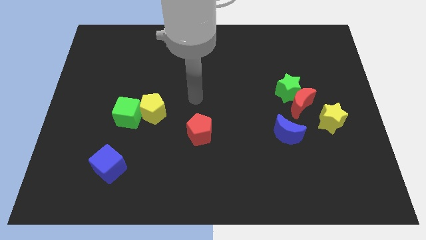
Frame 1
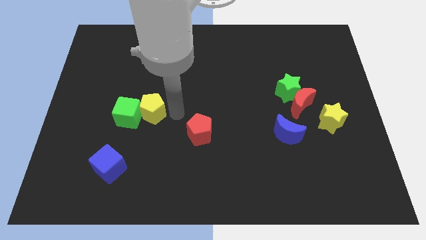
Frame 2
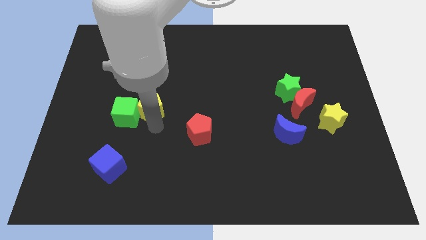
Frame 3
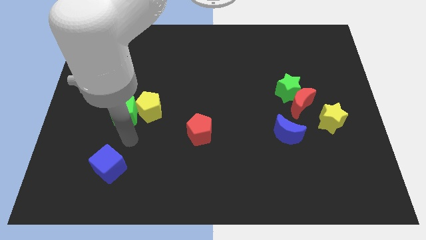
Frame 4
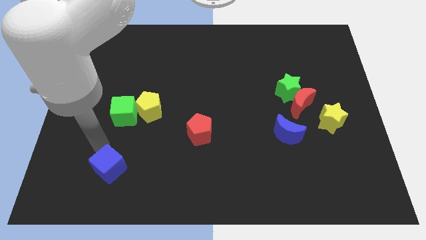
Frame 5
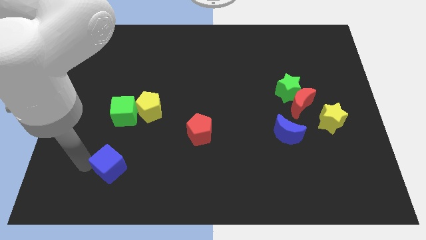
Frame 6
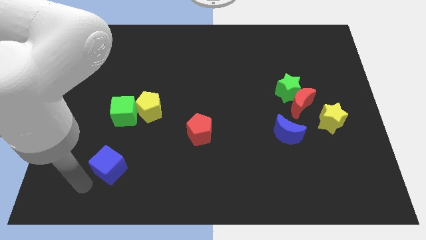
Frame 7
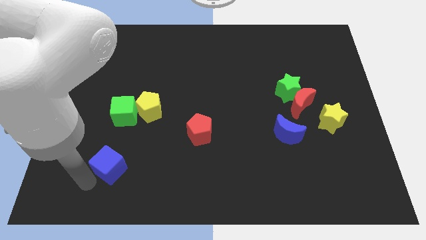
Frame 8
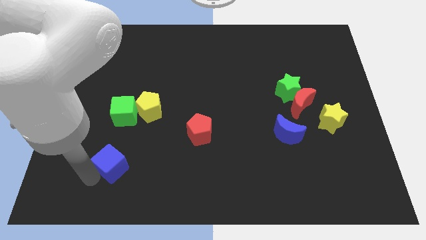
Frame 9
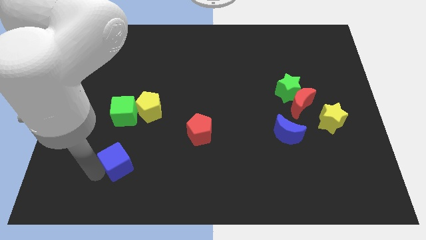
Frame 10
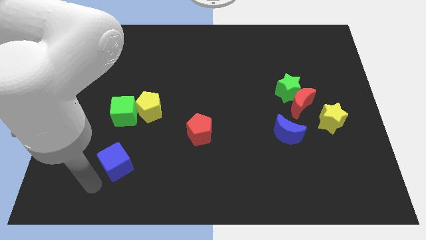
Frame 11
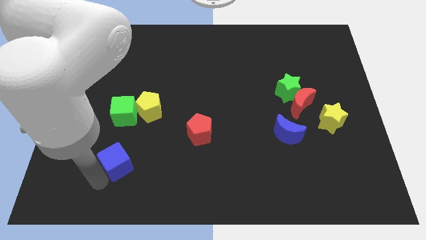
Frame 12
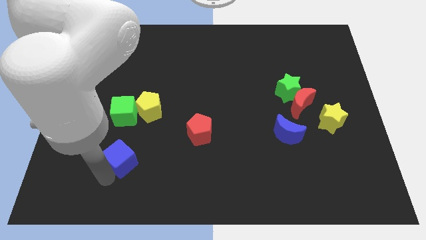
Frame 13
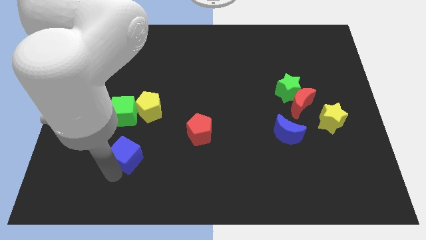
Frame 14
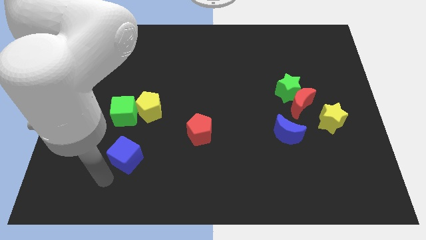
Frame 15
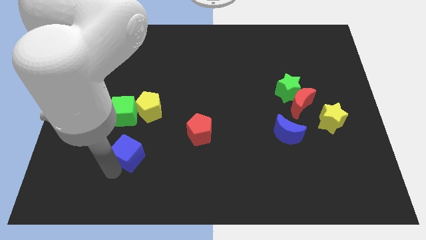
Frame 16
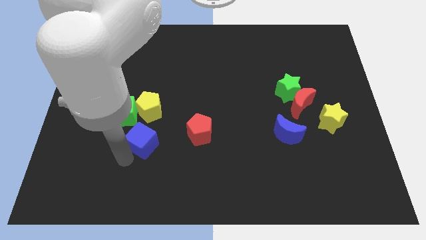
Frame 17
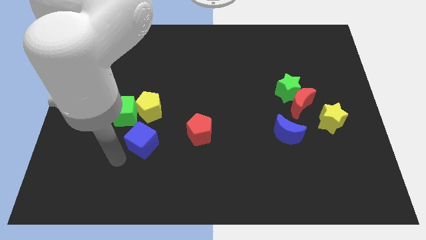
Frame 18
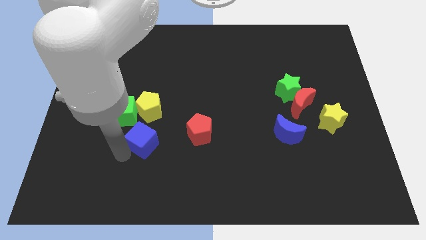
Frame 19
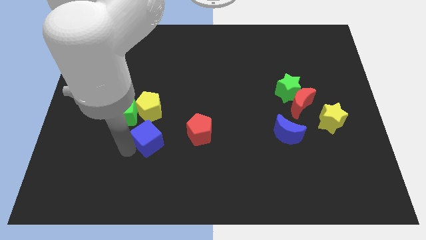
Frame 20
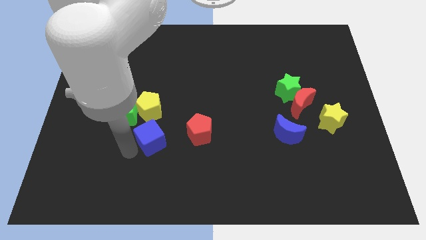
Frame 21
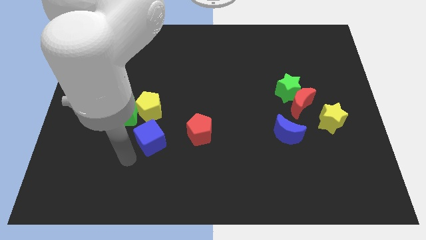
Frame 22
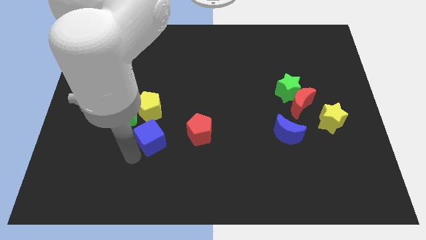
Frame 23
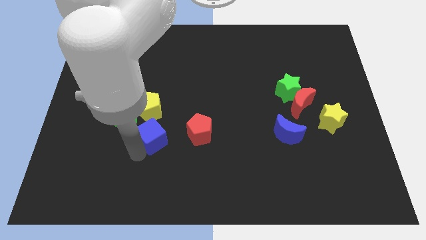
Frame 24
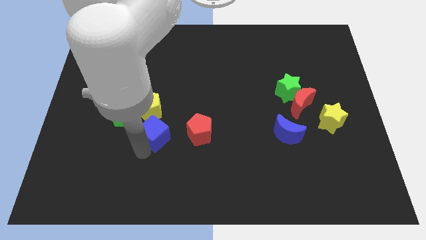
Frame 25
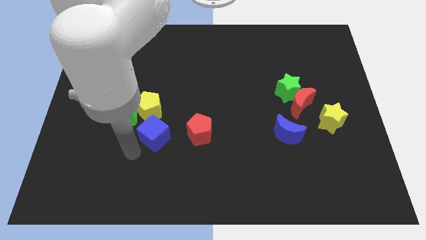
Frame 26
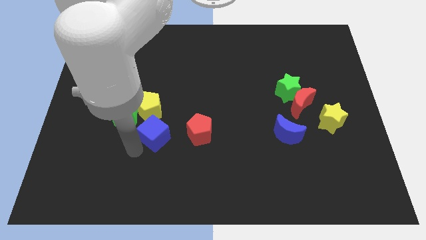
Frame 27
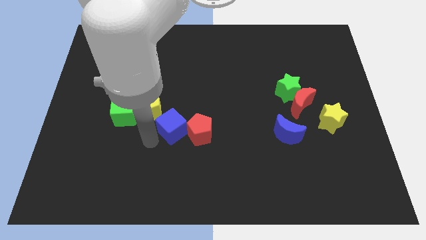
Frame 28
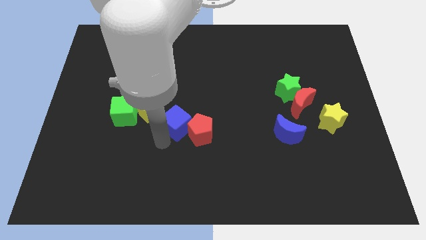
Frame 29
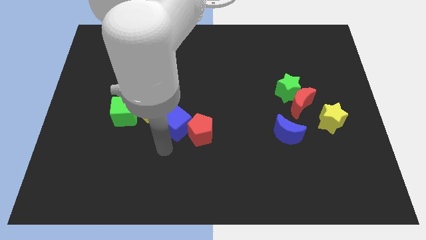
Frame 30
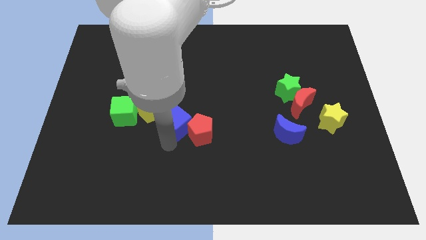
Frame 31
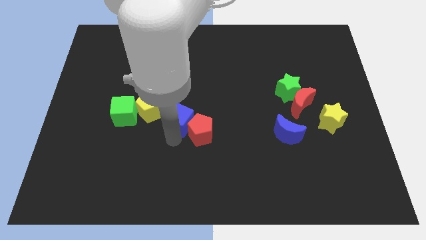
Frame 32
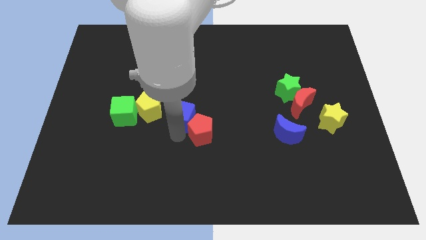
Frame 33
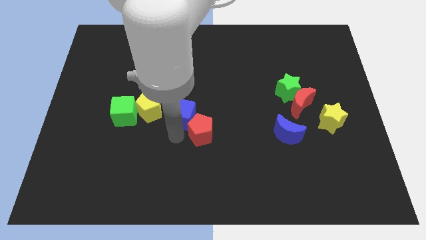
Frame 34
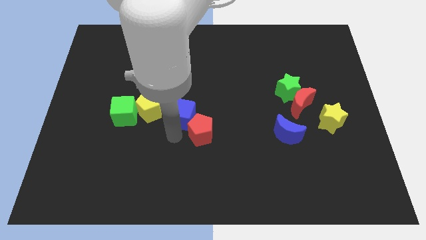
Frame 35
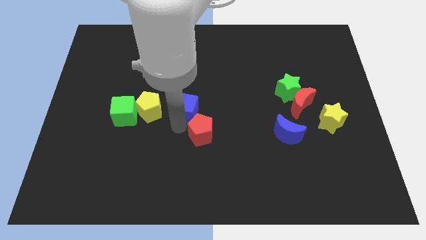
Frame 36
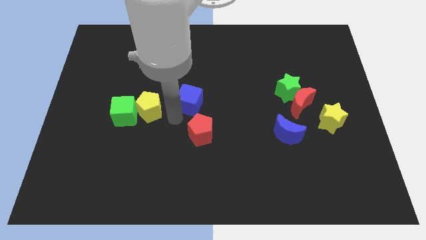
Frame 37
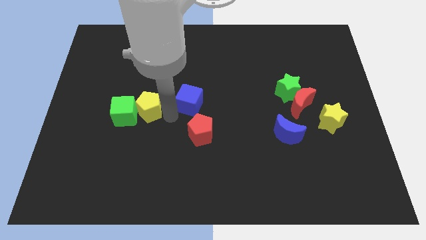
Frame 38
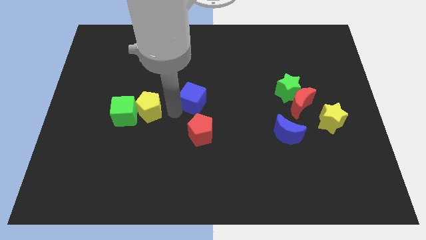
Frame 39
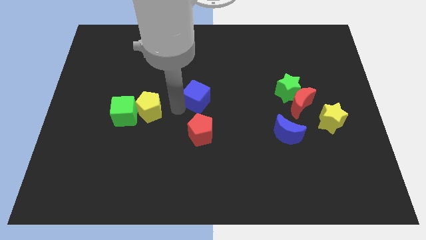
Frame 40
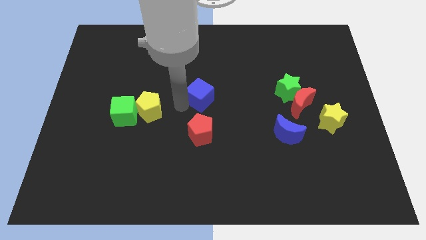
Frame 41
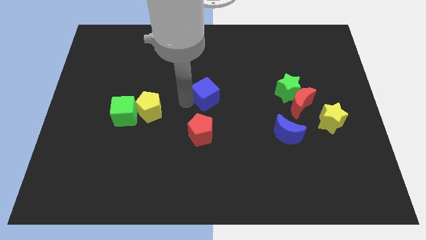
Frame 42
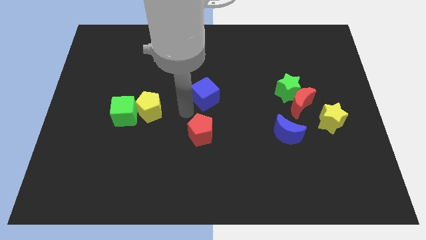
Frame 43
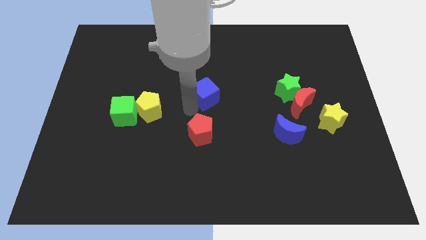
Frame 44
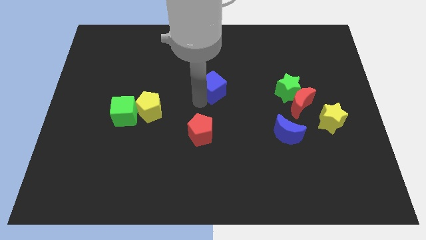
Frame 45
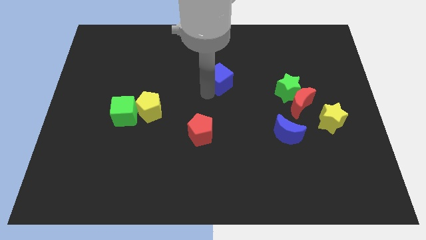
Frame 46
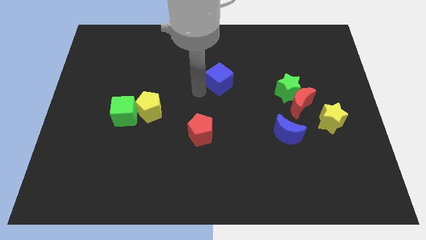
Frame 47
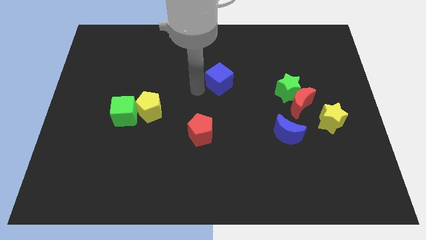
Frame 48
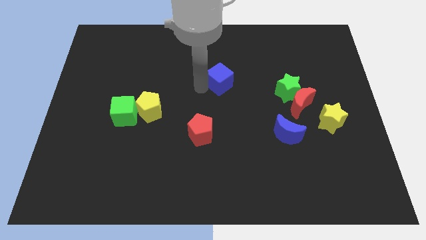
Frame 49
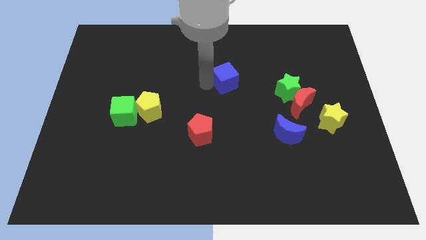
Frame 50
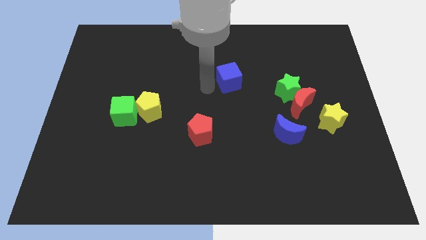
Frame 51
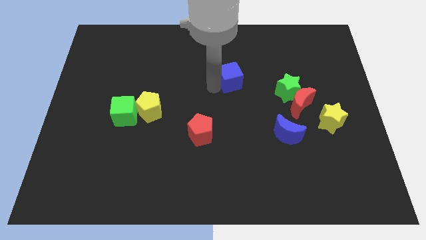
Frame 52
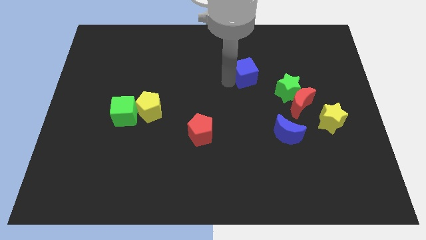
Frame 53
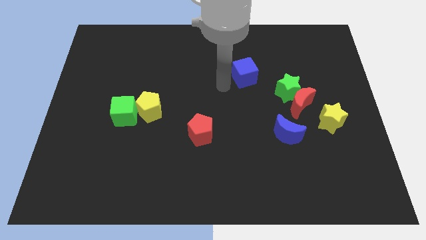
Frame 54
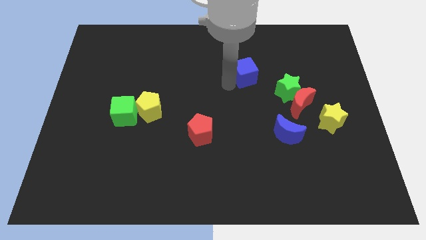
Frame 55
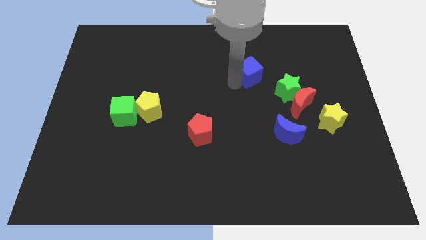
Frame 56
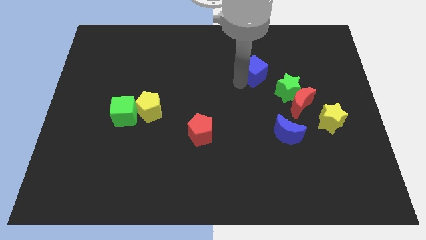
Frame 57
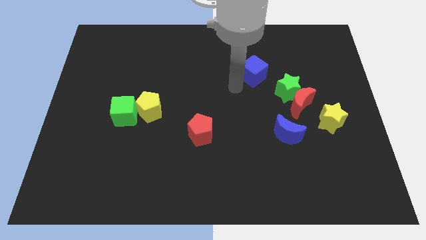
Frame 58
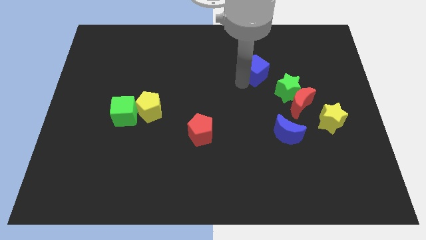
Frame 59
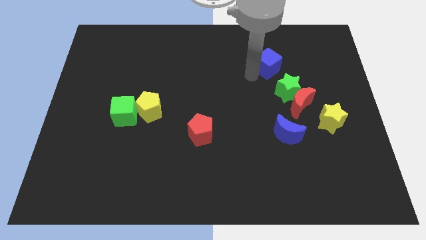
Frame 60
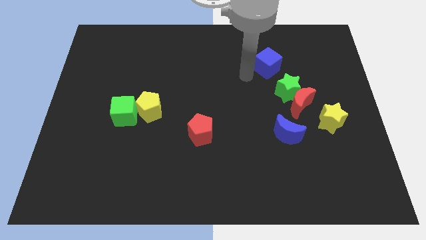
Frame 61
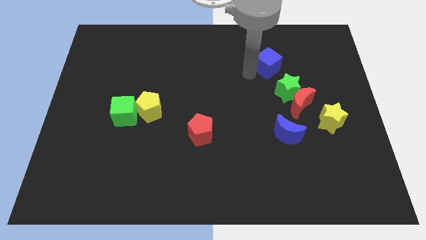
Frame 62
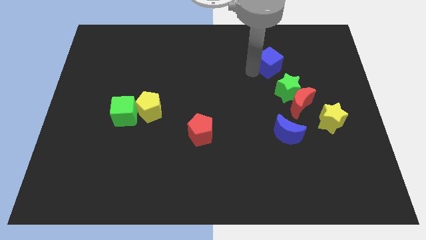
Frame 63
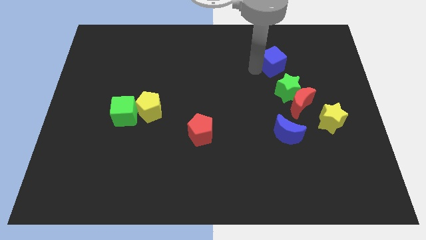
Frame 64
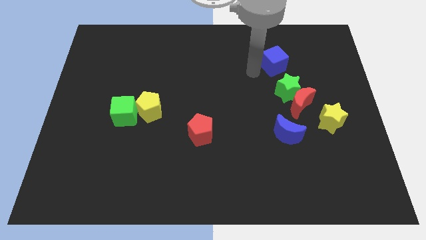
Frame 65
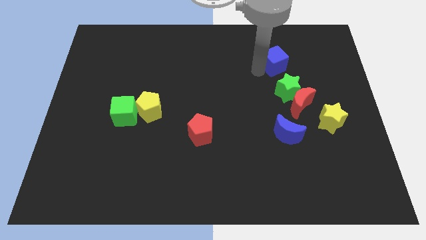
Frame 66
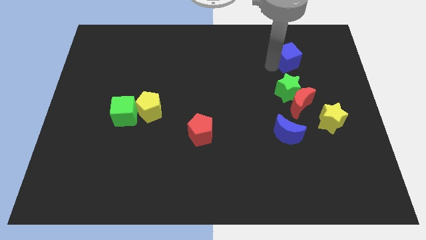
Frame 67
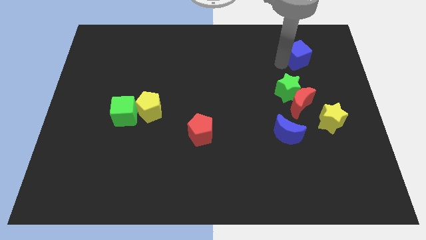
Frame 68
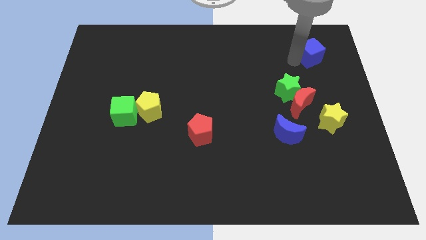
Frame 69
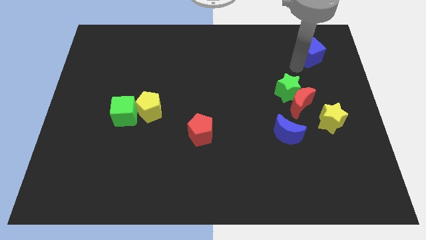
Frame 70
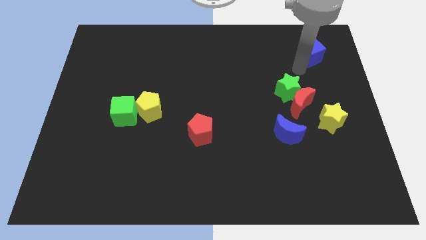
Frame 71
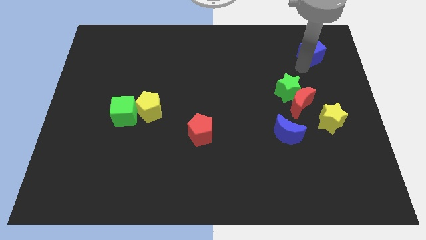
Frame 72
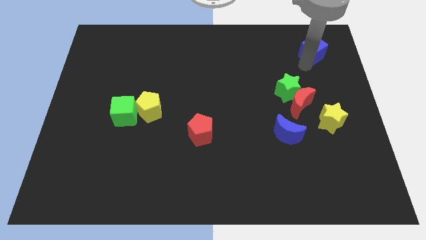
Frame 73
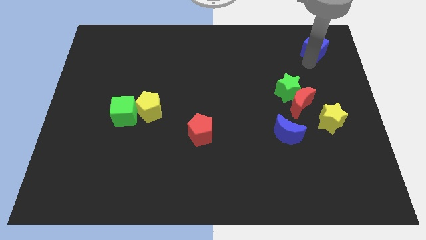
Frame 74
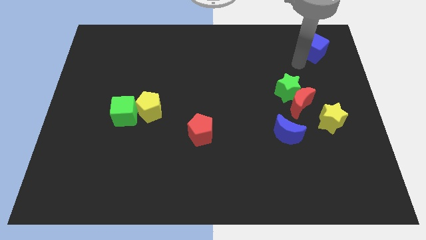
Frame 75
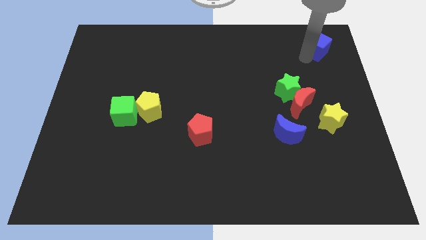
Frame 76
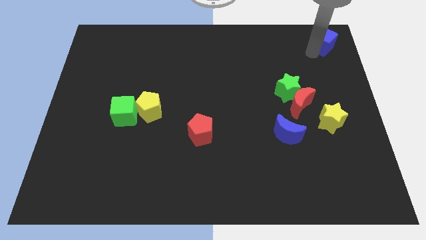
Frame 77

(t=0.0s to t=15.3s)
push the blue cube to the top right corner
